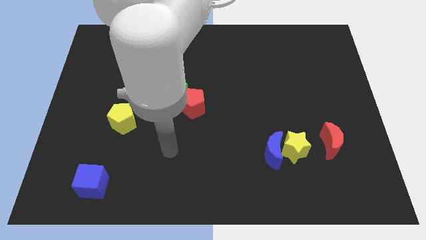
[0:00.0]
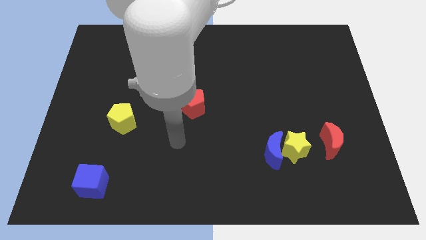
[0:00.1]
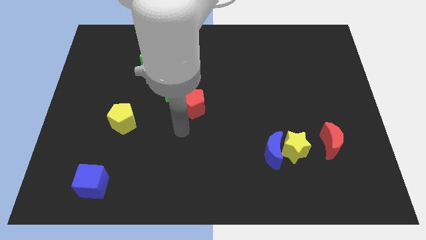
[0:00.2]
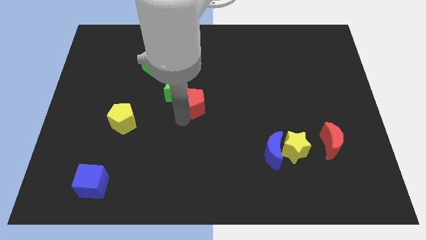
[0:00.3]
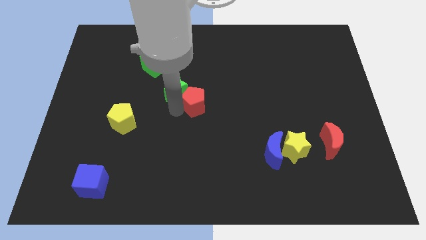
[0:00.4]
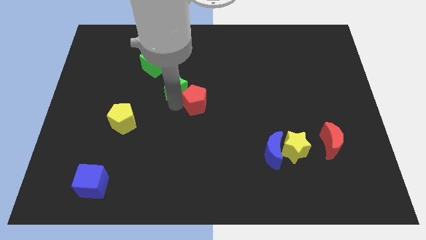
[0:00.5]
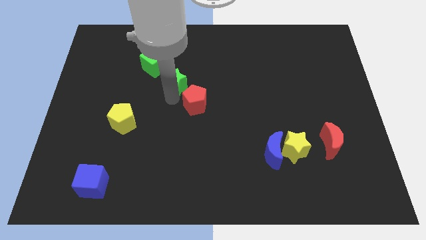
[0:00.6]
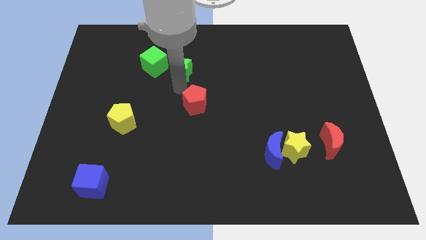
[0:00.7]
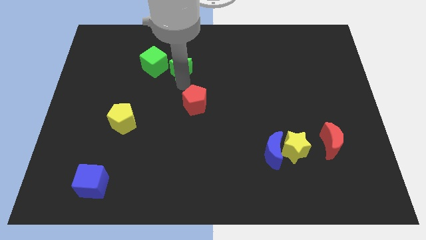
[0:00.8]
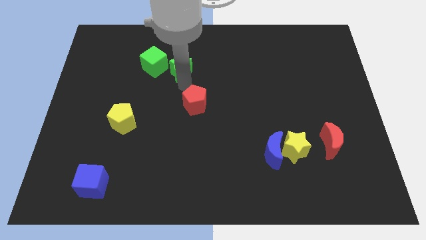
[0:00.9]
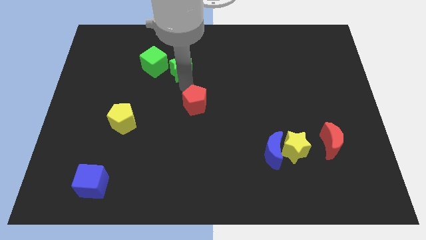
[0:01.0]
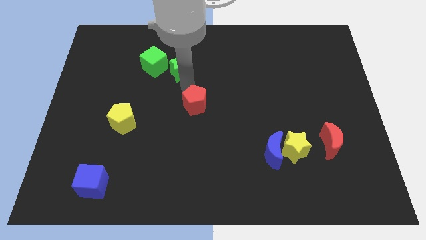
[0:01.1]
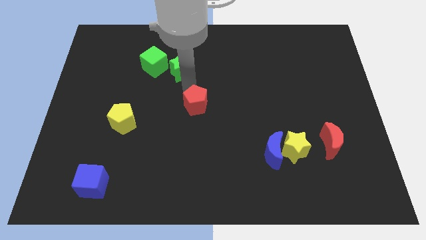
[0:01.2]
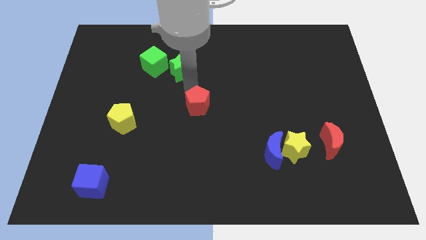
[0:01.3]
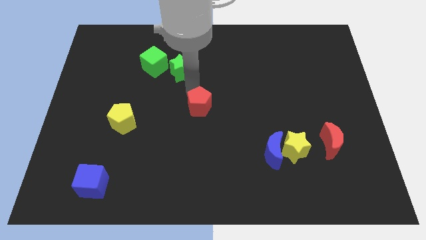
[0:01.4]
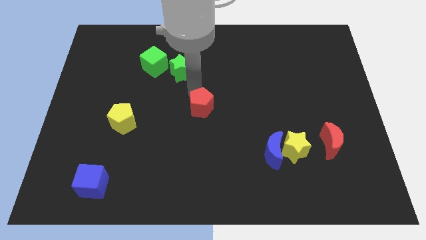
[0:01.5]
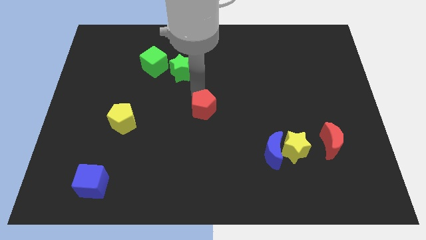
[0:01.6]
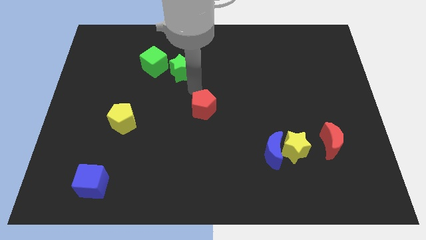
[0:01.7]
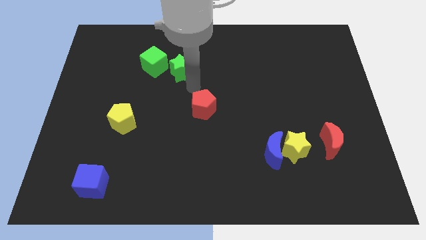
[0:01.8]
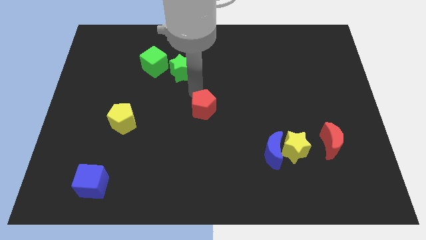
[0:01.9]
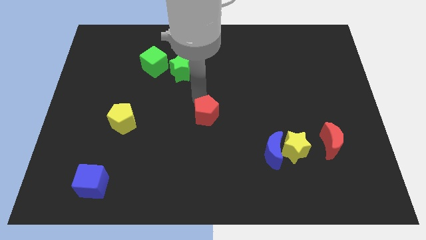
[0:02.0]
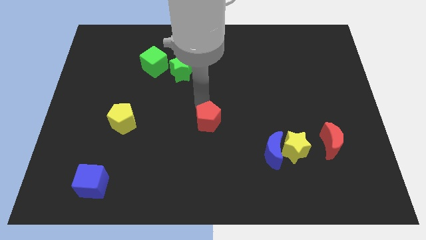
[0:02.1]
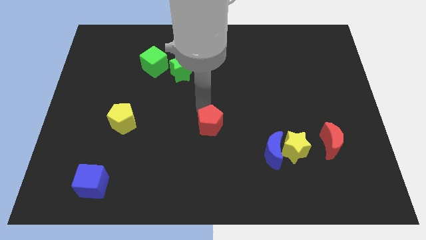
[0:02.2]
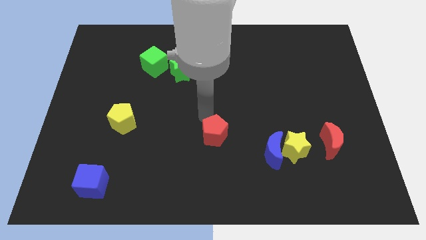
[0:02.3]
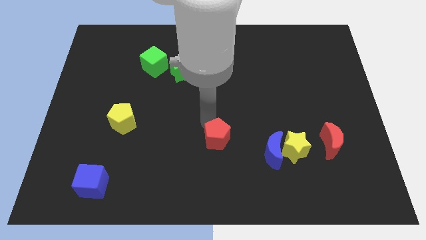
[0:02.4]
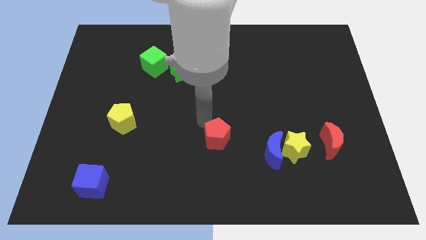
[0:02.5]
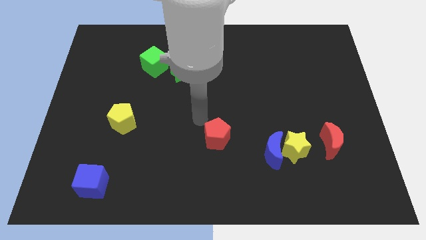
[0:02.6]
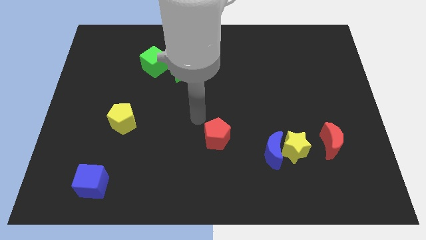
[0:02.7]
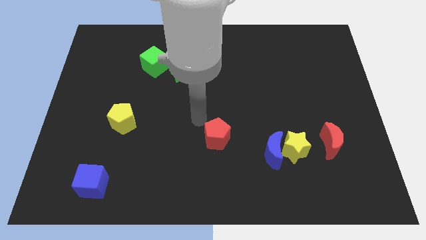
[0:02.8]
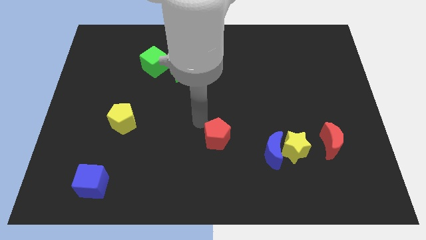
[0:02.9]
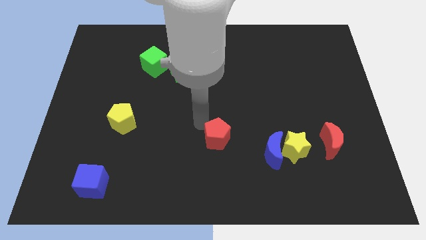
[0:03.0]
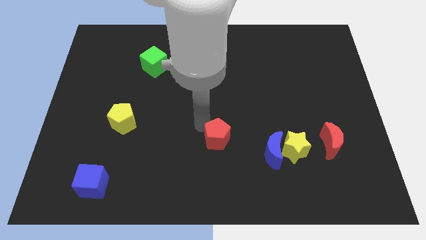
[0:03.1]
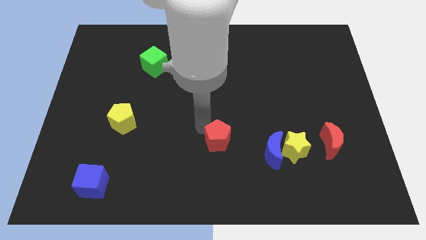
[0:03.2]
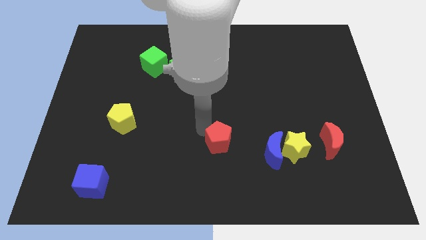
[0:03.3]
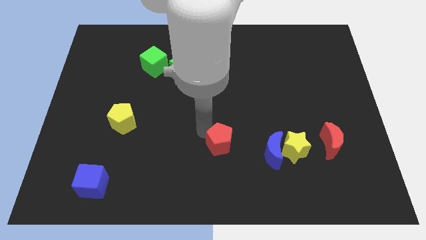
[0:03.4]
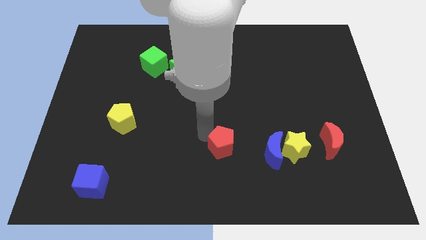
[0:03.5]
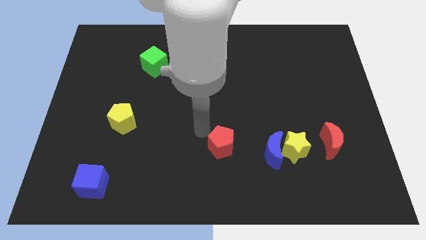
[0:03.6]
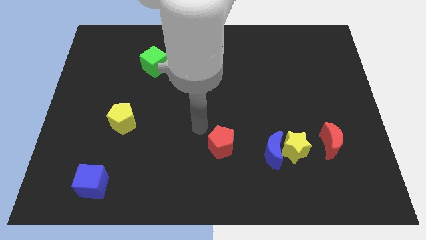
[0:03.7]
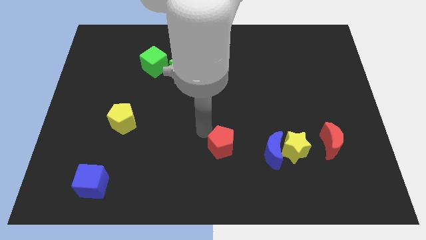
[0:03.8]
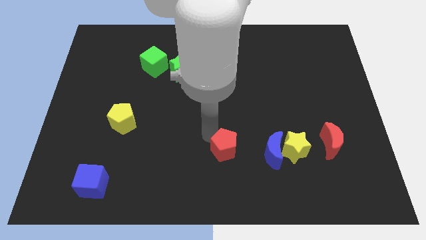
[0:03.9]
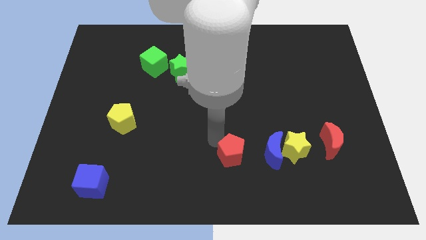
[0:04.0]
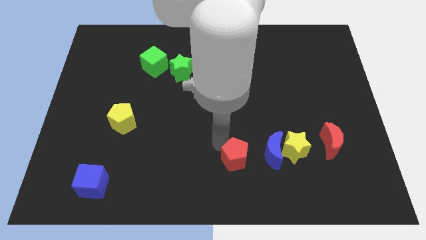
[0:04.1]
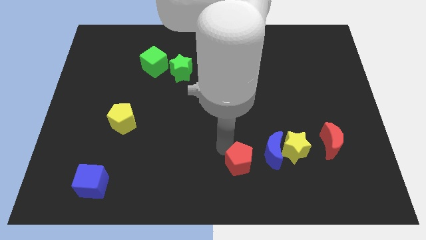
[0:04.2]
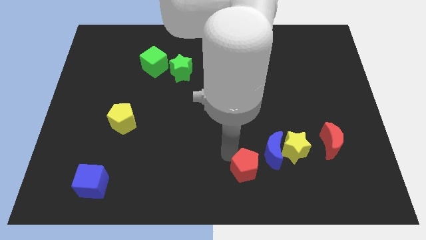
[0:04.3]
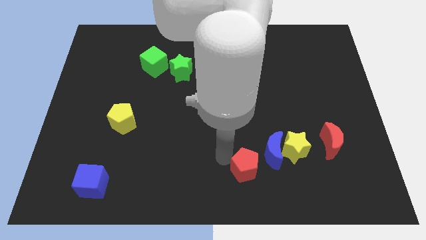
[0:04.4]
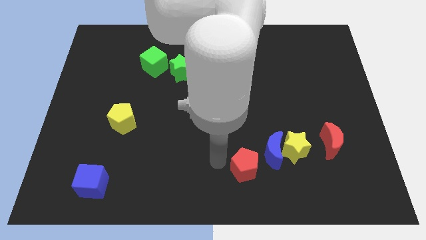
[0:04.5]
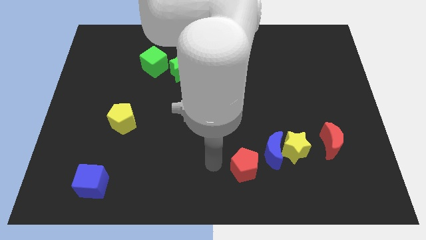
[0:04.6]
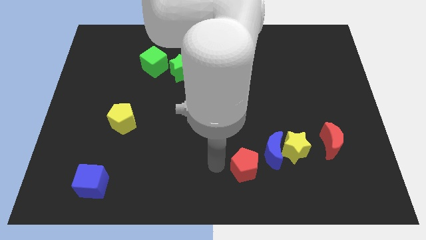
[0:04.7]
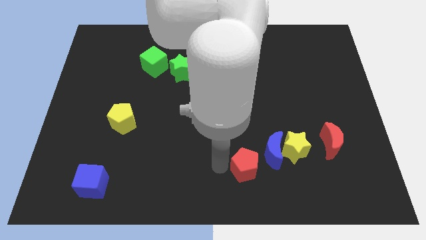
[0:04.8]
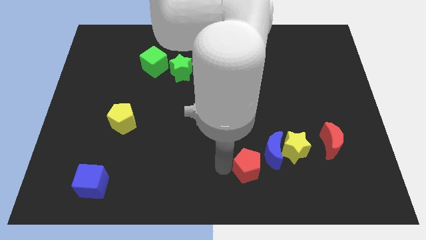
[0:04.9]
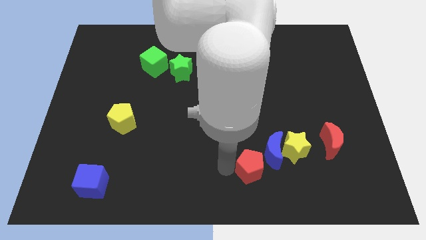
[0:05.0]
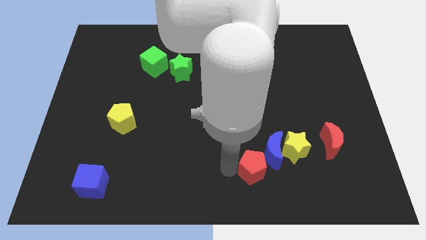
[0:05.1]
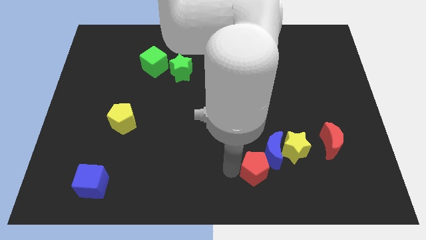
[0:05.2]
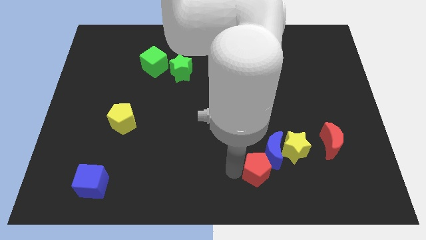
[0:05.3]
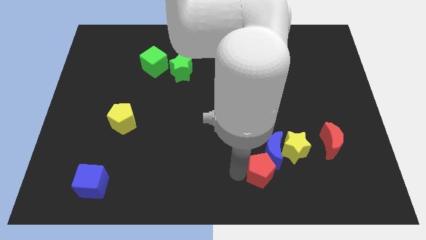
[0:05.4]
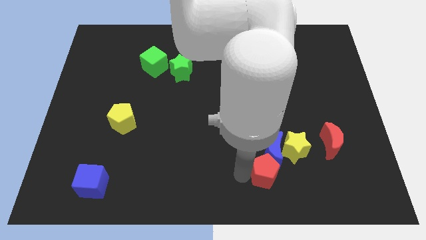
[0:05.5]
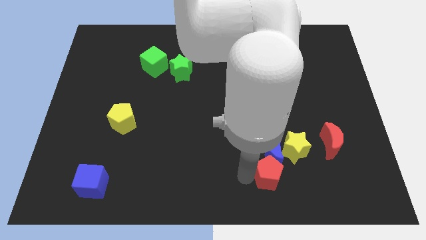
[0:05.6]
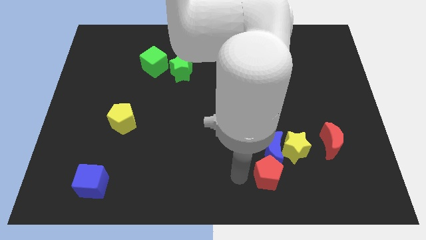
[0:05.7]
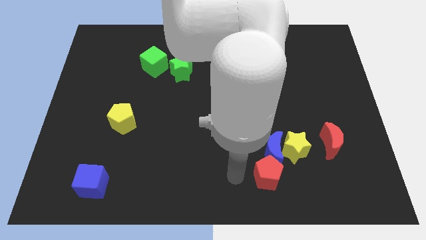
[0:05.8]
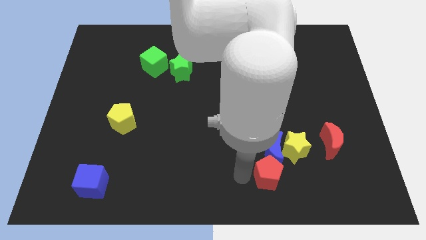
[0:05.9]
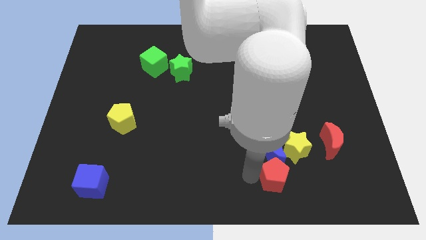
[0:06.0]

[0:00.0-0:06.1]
push the red pentagon to the bottom right side of the blue moon
